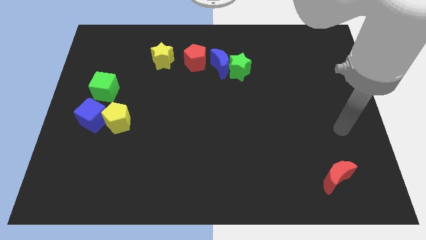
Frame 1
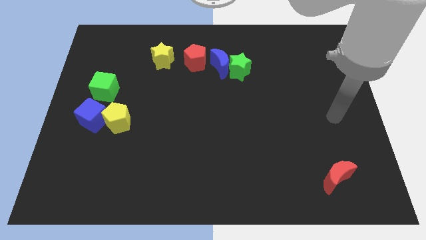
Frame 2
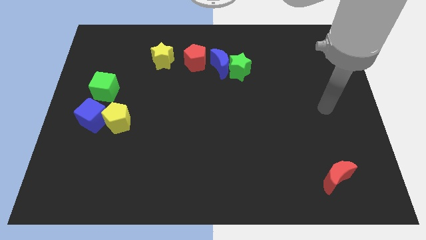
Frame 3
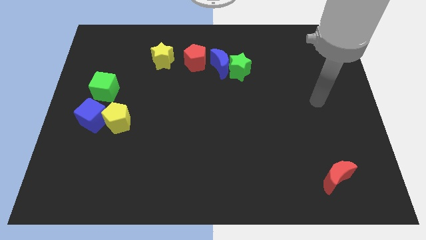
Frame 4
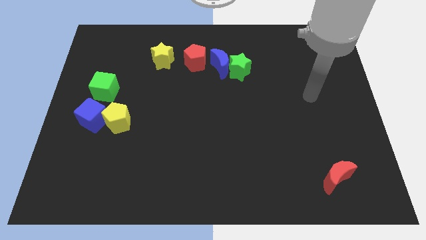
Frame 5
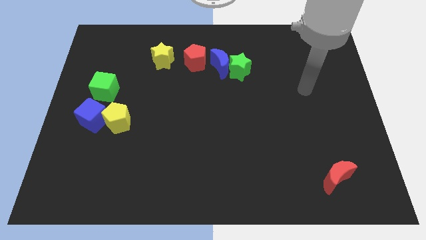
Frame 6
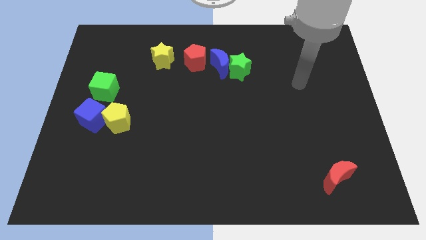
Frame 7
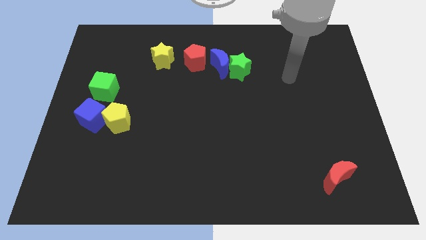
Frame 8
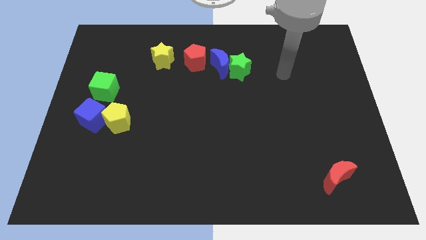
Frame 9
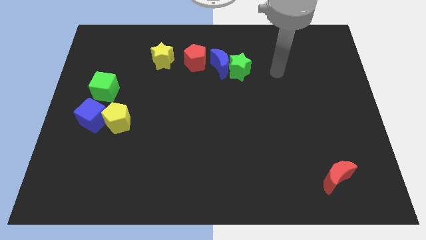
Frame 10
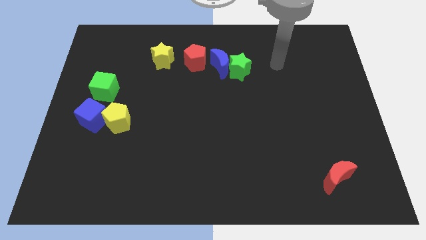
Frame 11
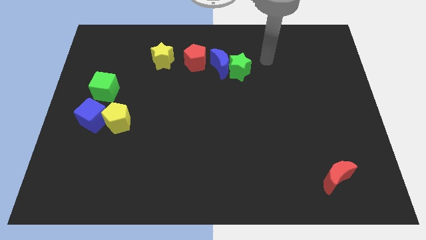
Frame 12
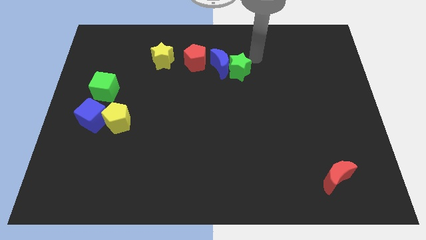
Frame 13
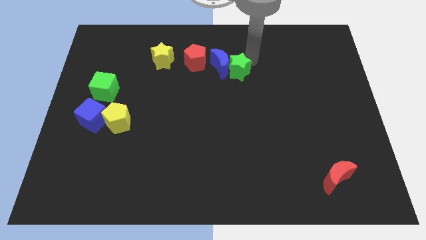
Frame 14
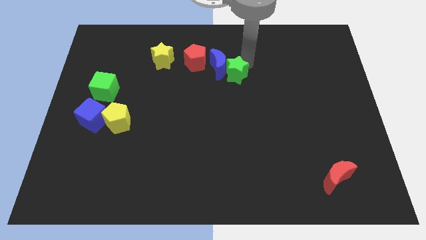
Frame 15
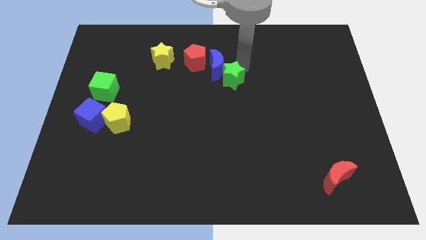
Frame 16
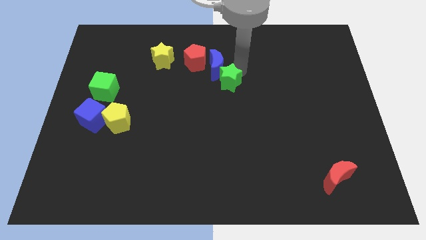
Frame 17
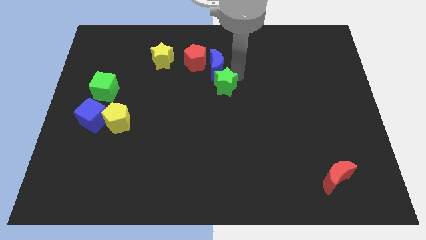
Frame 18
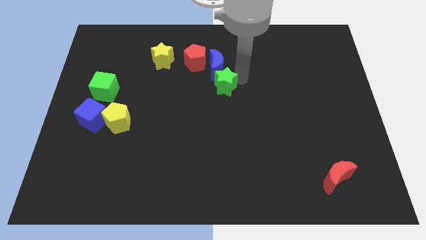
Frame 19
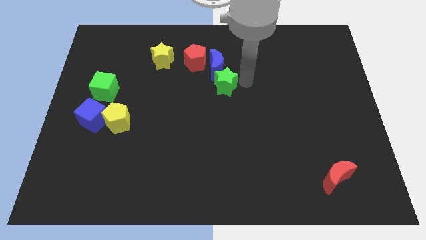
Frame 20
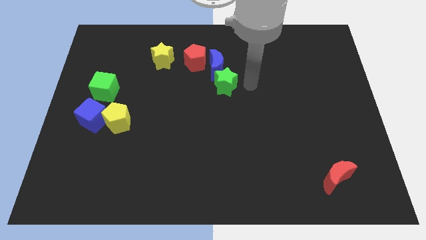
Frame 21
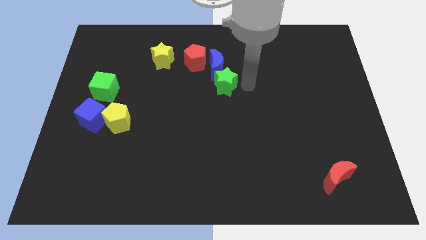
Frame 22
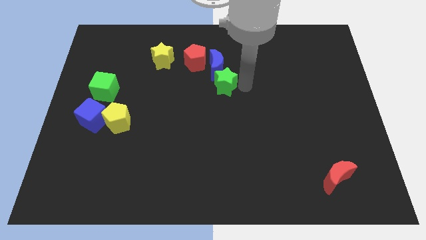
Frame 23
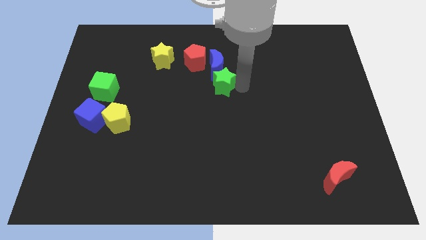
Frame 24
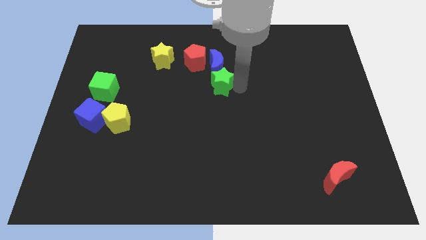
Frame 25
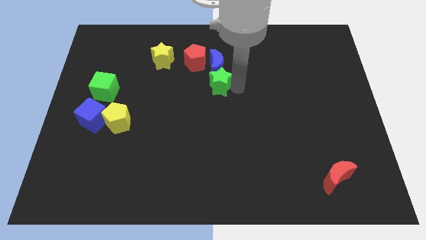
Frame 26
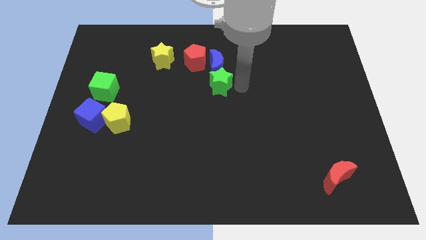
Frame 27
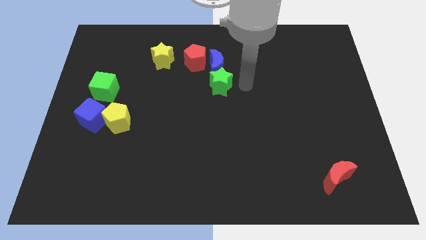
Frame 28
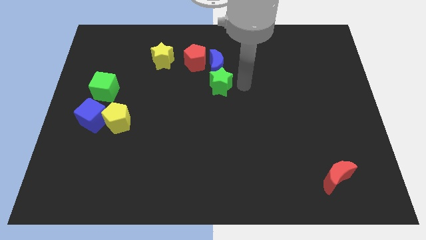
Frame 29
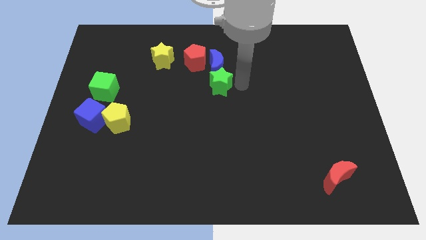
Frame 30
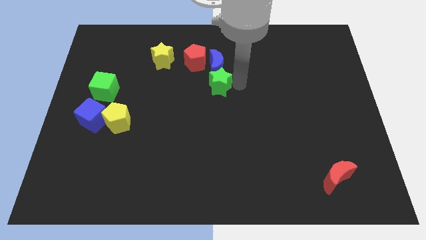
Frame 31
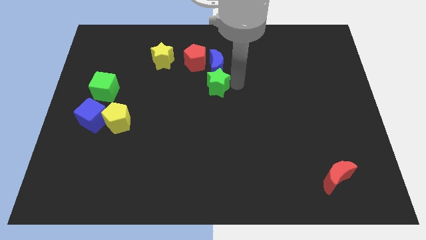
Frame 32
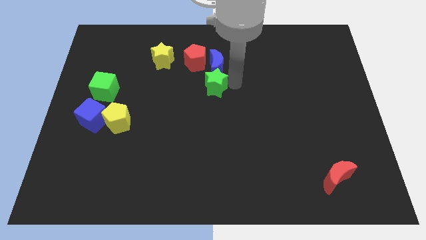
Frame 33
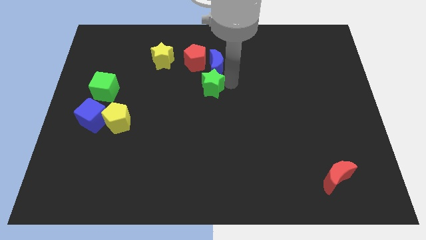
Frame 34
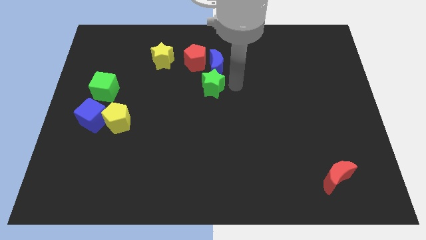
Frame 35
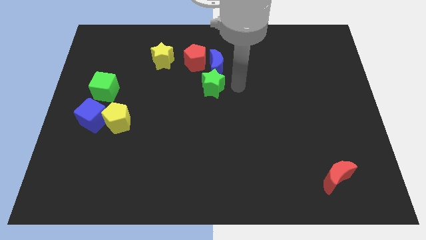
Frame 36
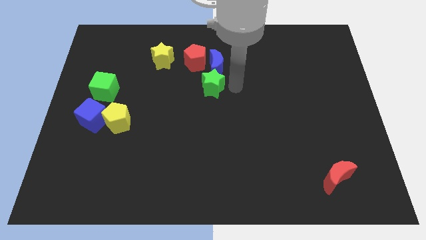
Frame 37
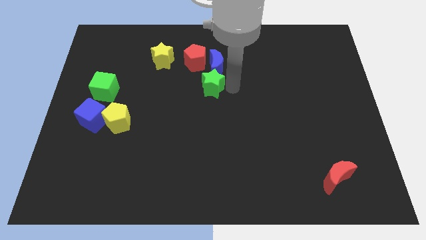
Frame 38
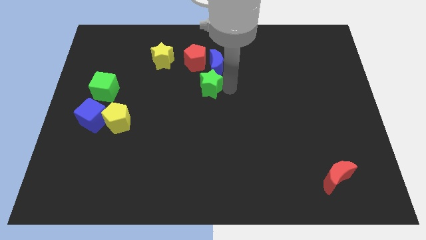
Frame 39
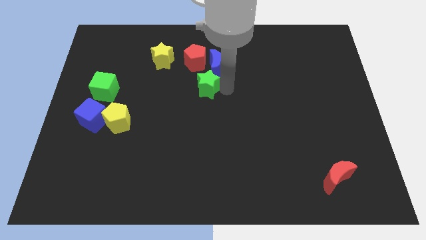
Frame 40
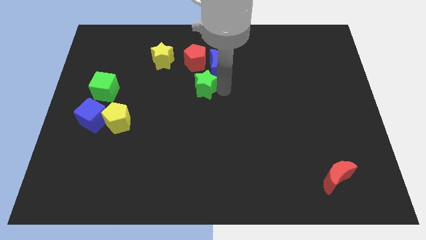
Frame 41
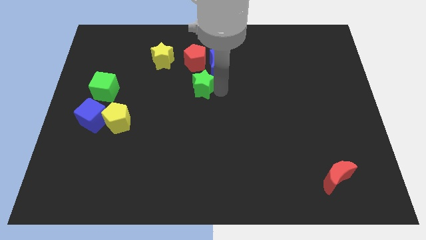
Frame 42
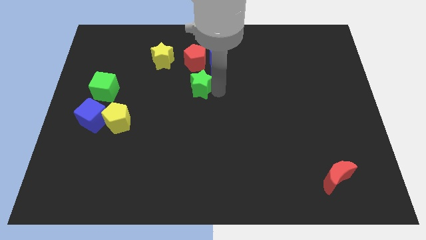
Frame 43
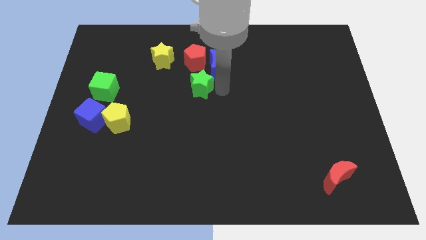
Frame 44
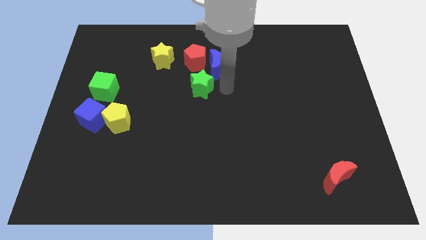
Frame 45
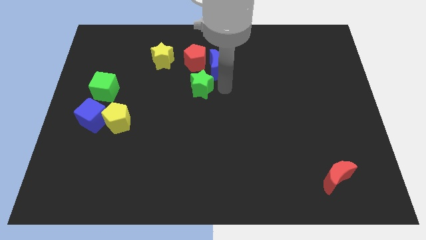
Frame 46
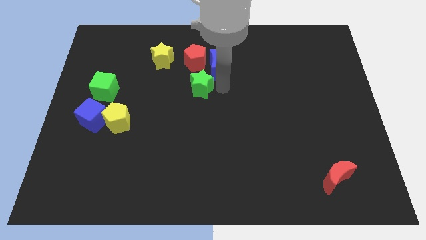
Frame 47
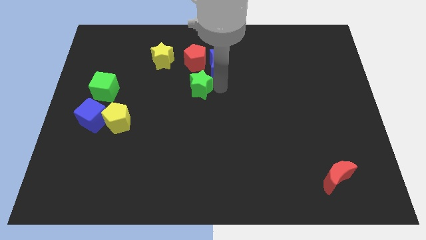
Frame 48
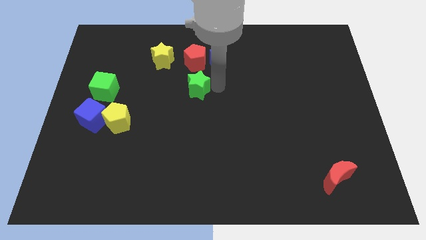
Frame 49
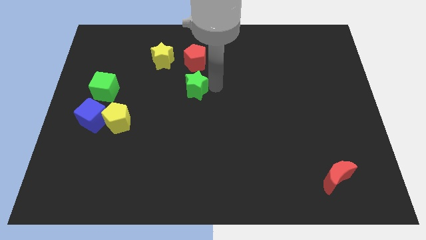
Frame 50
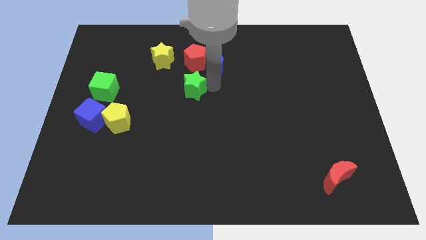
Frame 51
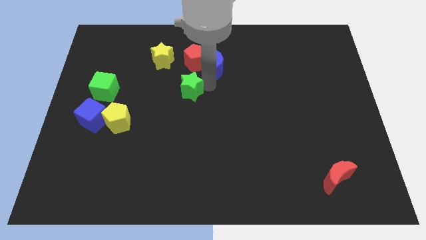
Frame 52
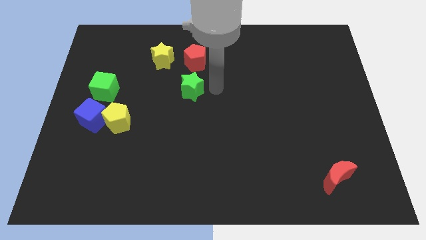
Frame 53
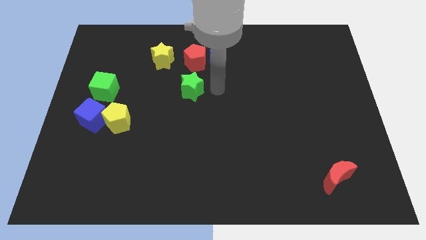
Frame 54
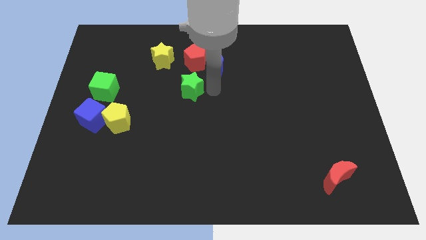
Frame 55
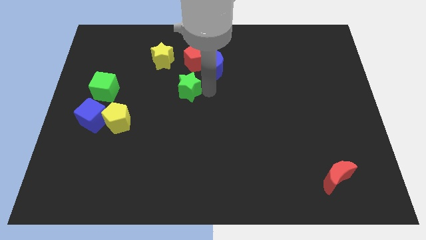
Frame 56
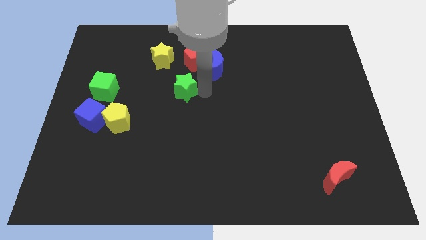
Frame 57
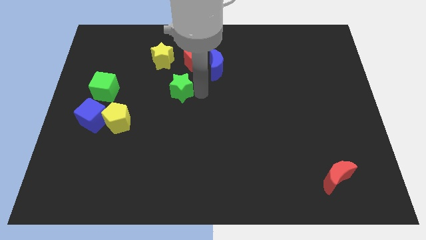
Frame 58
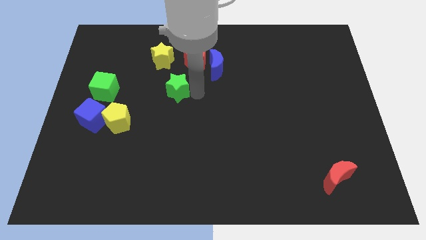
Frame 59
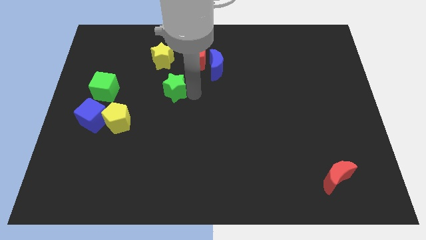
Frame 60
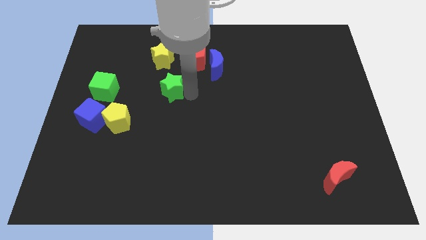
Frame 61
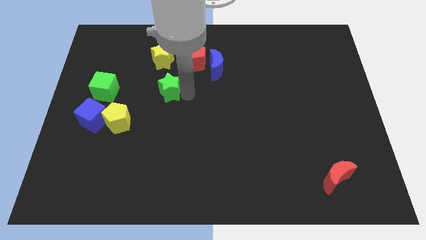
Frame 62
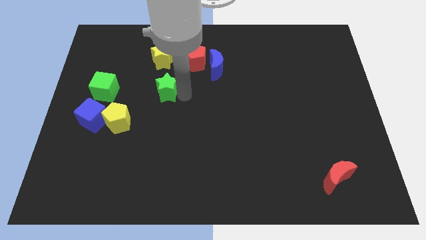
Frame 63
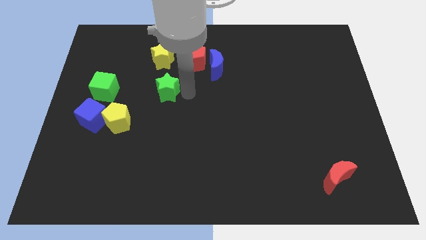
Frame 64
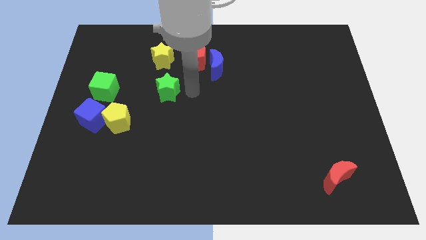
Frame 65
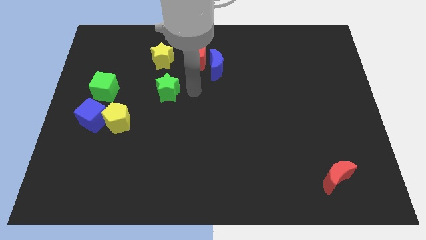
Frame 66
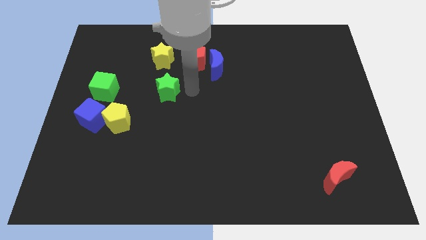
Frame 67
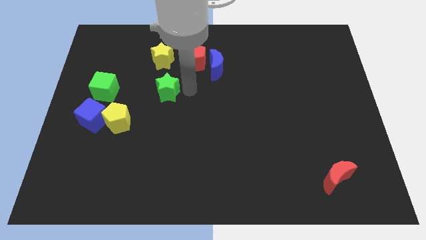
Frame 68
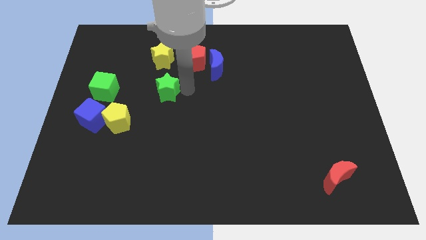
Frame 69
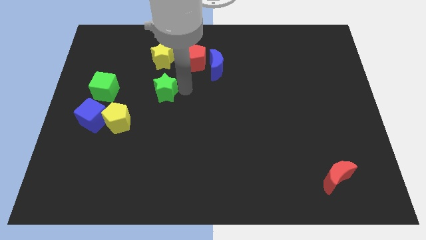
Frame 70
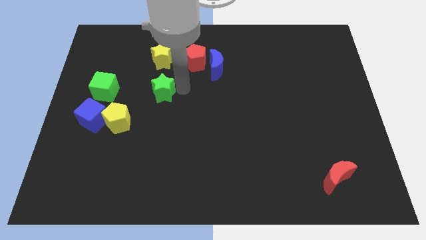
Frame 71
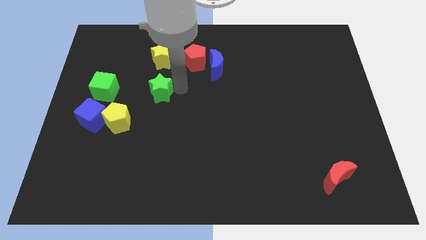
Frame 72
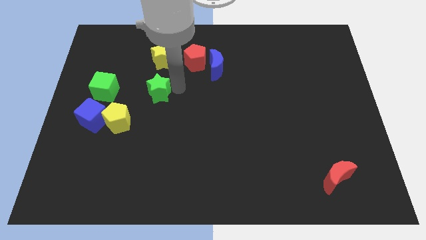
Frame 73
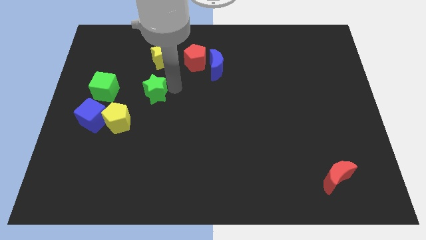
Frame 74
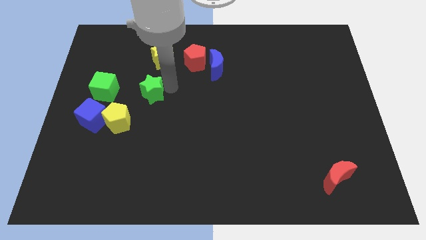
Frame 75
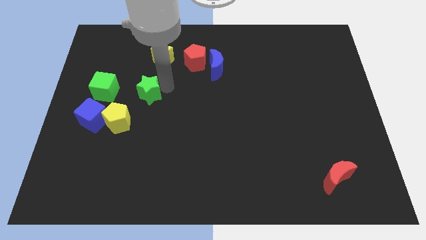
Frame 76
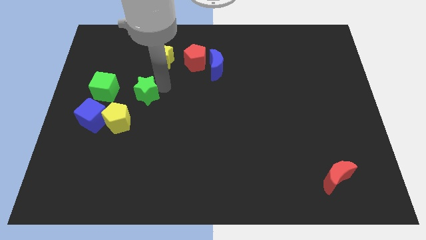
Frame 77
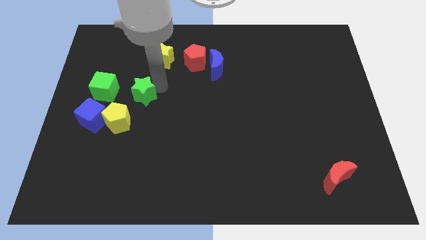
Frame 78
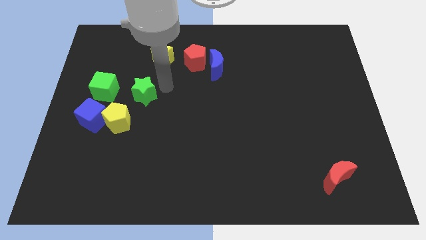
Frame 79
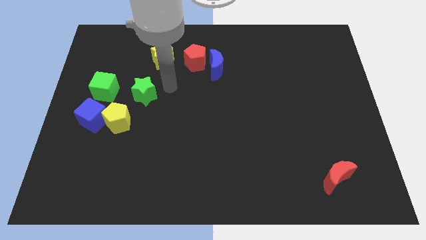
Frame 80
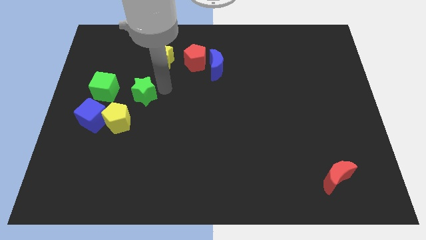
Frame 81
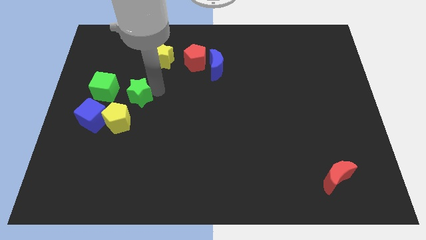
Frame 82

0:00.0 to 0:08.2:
move the green star to the top right of the blue cube
